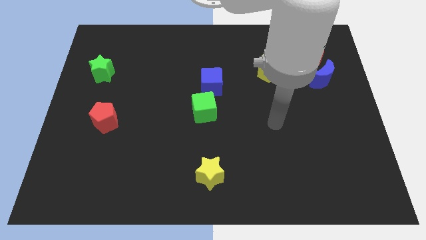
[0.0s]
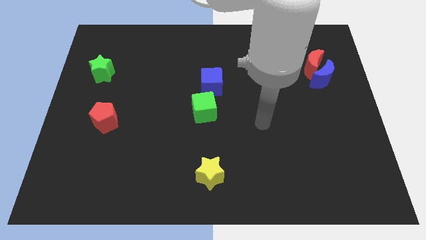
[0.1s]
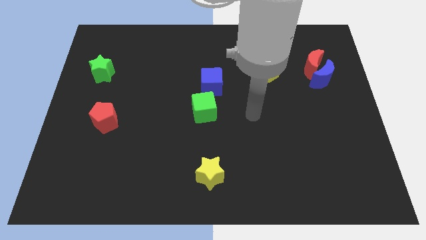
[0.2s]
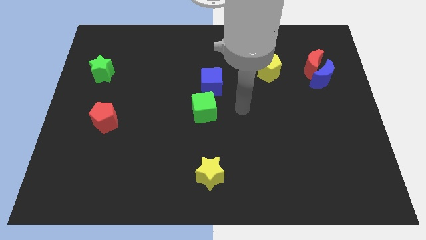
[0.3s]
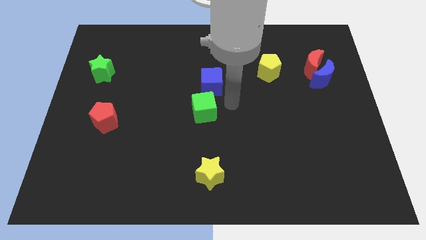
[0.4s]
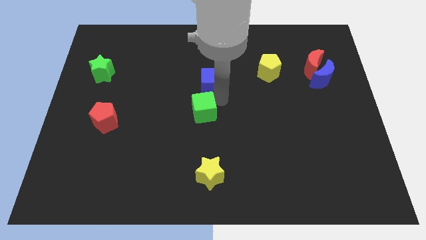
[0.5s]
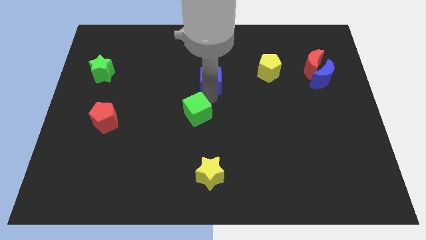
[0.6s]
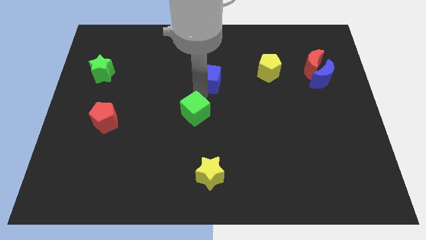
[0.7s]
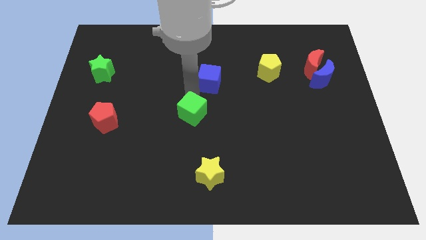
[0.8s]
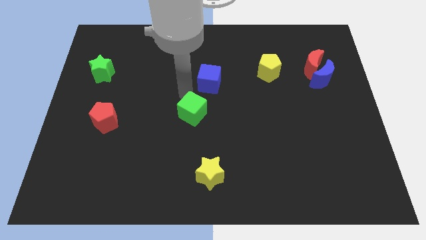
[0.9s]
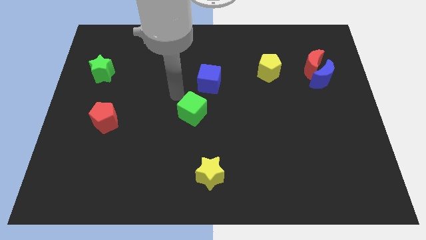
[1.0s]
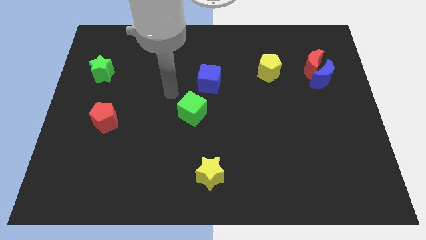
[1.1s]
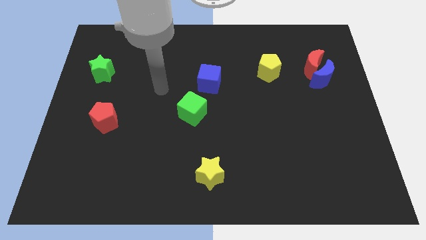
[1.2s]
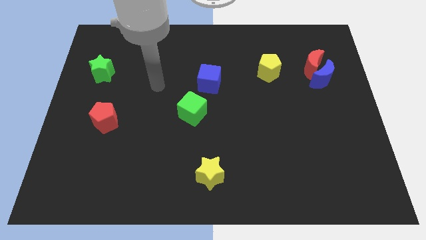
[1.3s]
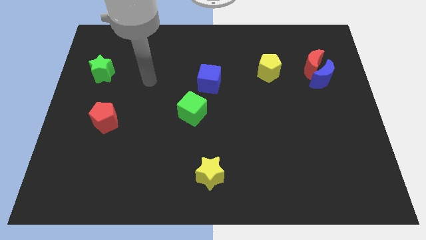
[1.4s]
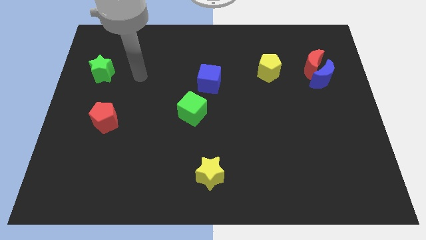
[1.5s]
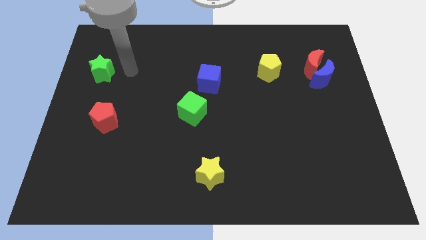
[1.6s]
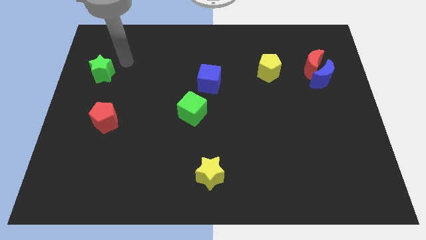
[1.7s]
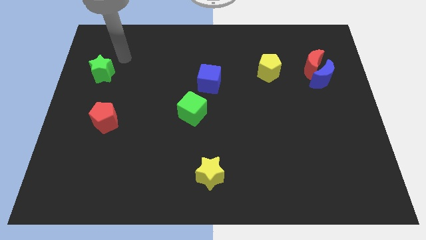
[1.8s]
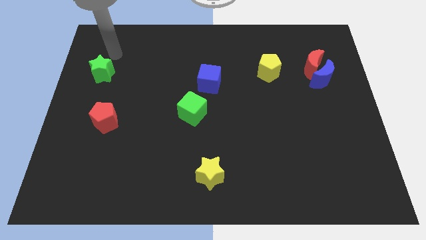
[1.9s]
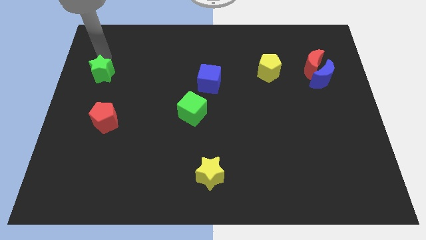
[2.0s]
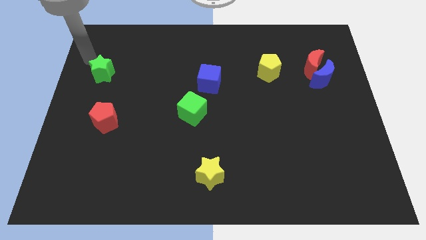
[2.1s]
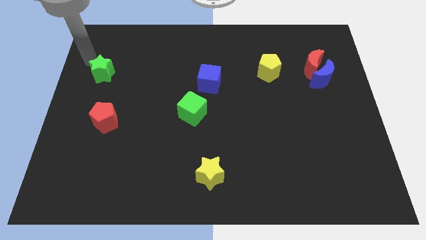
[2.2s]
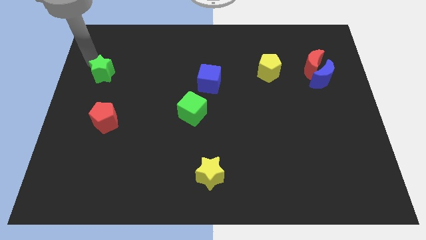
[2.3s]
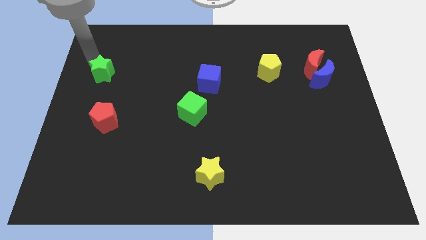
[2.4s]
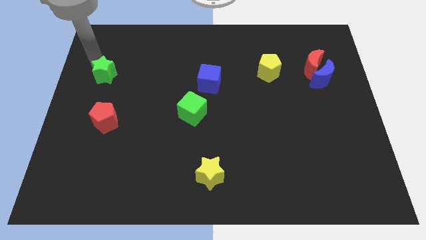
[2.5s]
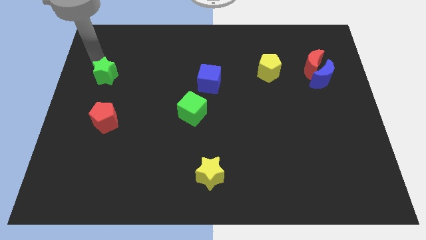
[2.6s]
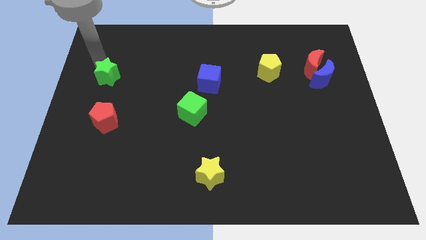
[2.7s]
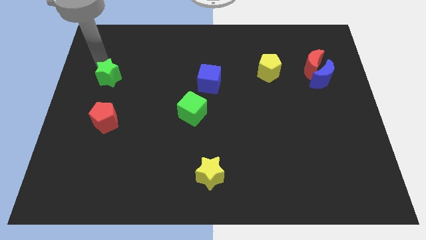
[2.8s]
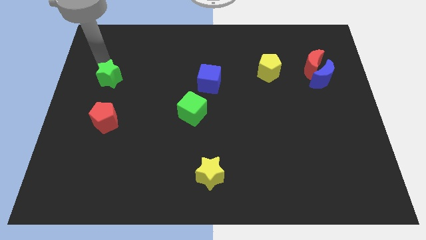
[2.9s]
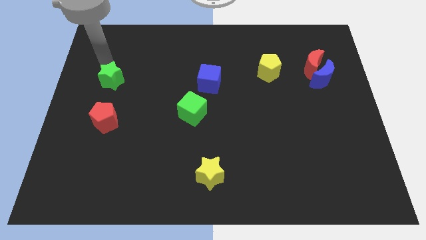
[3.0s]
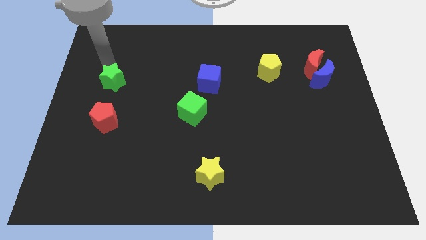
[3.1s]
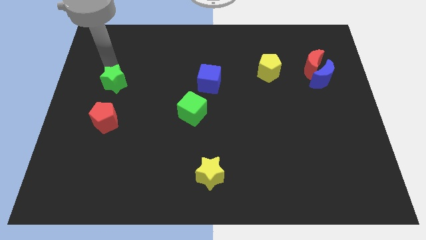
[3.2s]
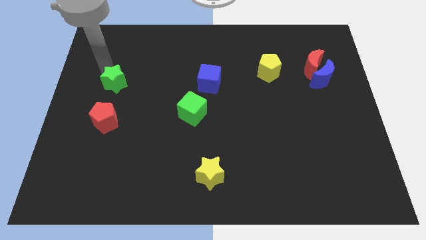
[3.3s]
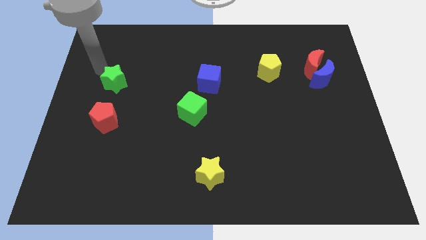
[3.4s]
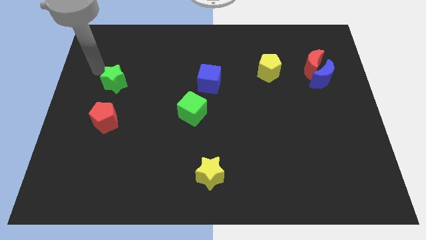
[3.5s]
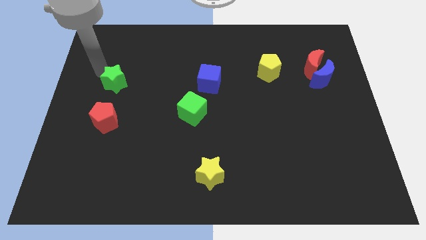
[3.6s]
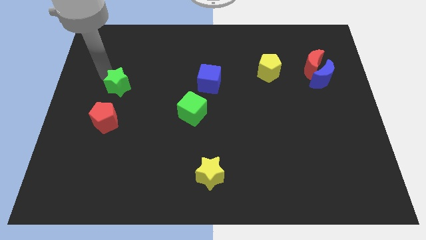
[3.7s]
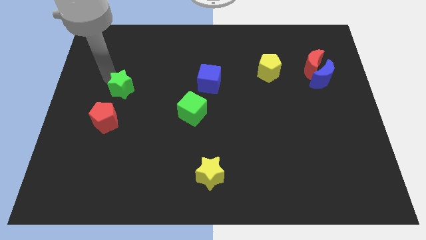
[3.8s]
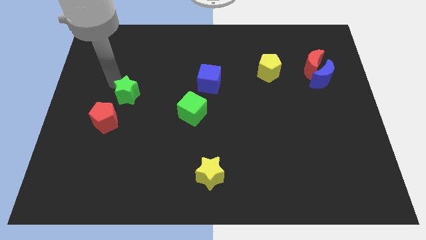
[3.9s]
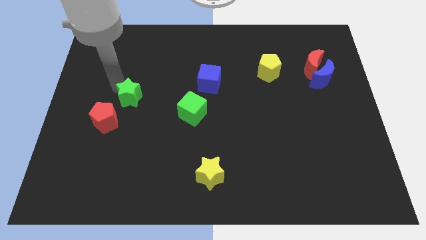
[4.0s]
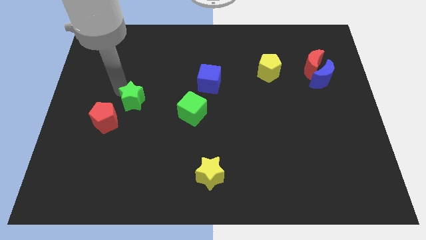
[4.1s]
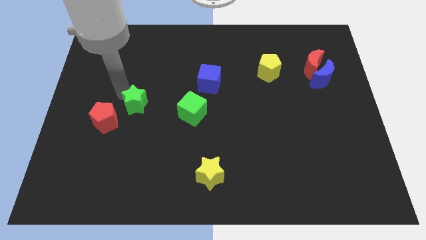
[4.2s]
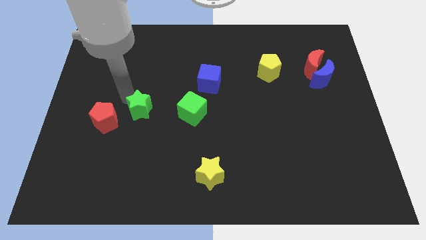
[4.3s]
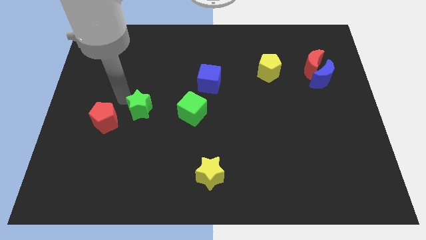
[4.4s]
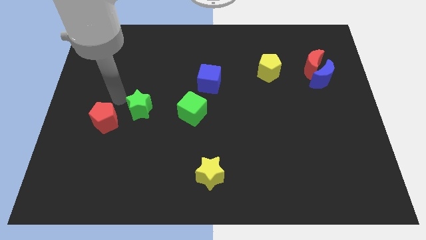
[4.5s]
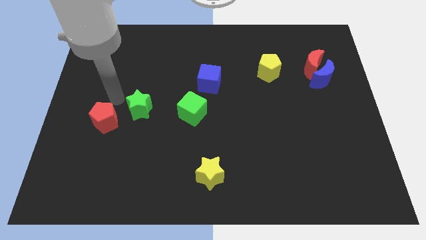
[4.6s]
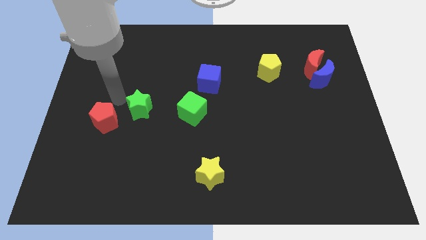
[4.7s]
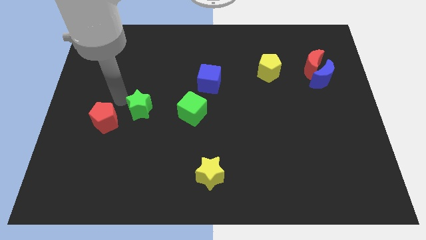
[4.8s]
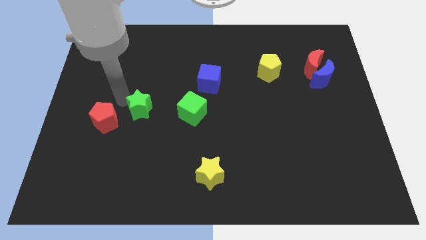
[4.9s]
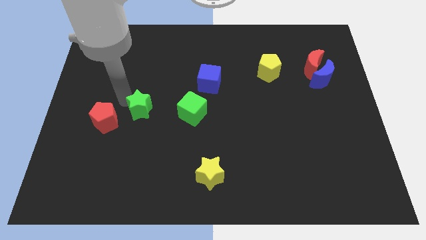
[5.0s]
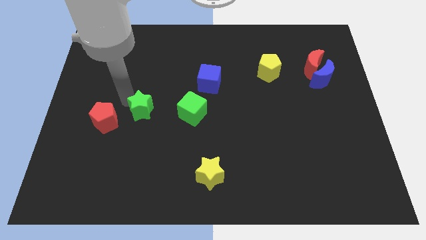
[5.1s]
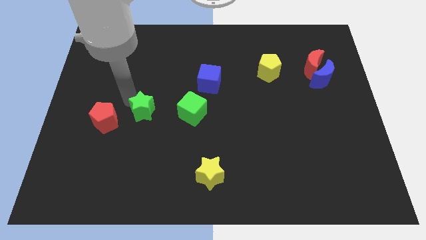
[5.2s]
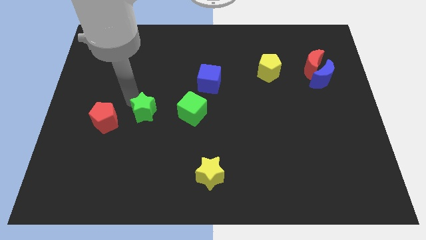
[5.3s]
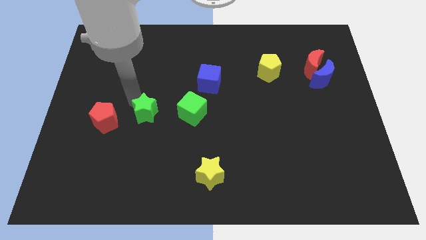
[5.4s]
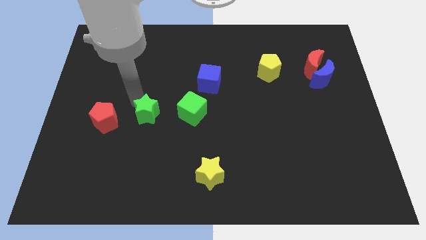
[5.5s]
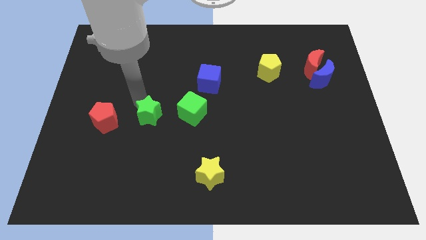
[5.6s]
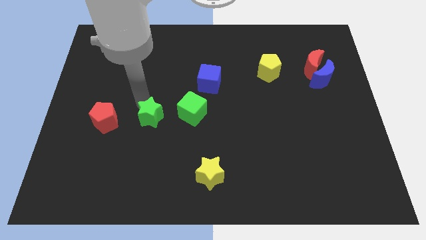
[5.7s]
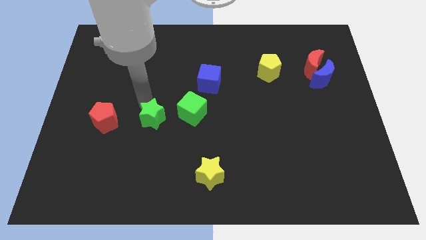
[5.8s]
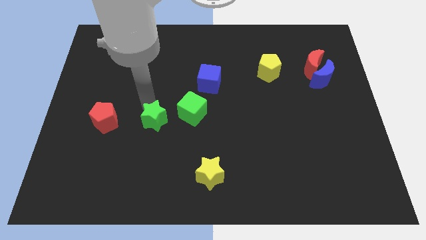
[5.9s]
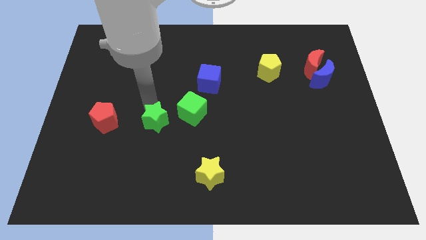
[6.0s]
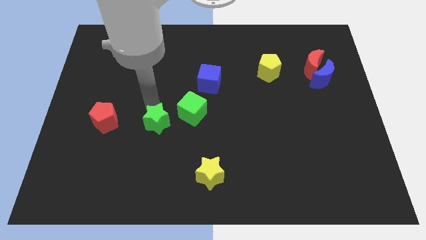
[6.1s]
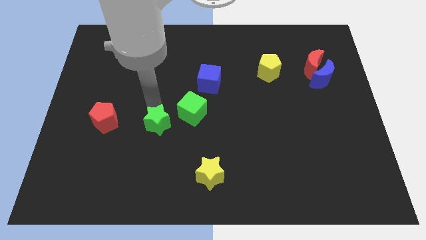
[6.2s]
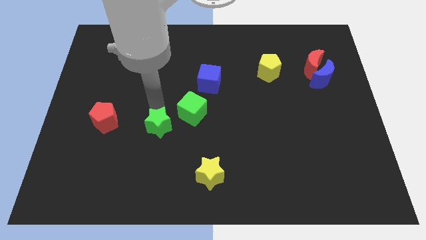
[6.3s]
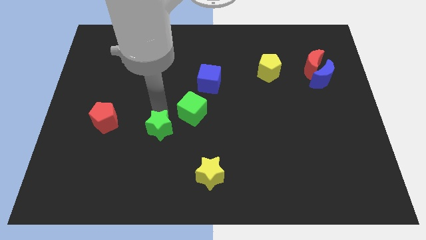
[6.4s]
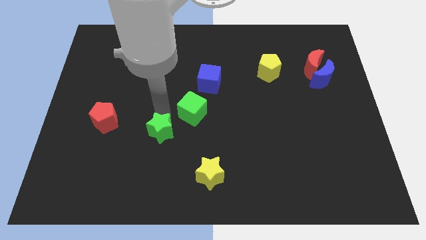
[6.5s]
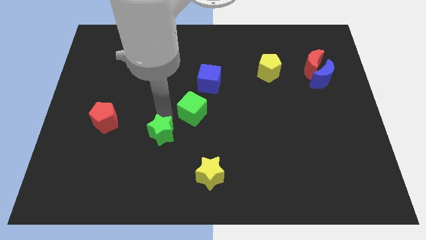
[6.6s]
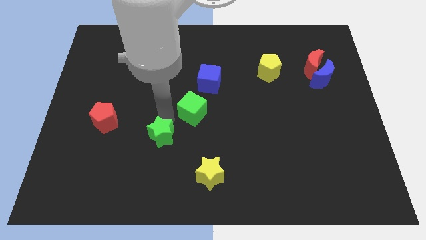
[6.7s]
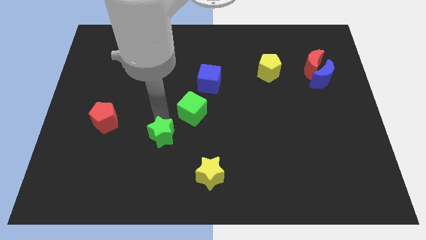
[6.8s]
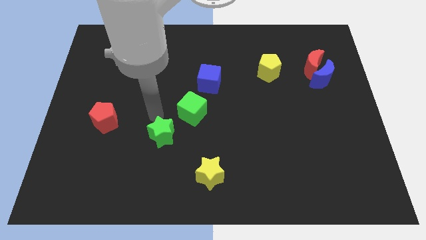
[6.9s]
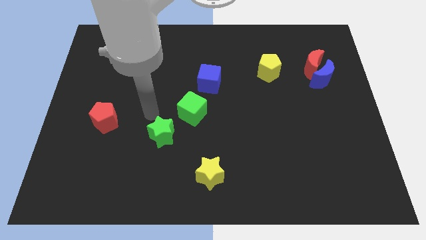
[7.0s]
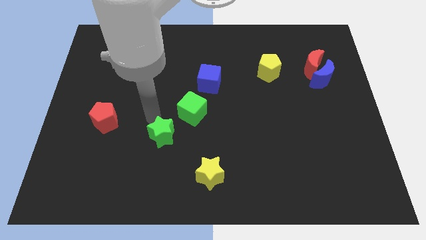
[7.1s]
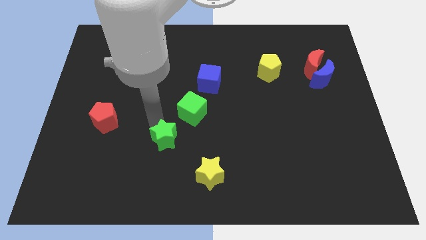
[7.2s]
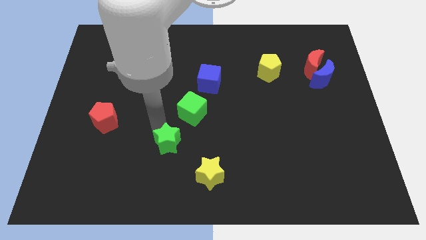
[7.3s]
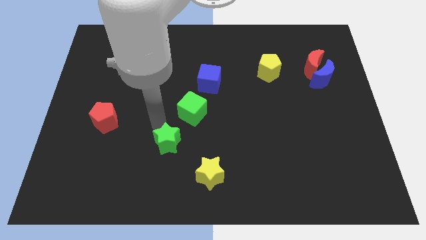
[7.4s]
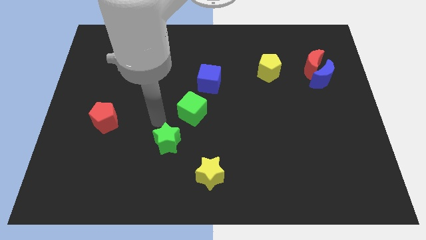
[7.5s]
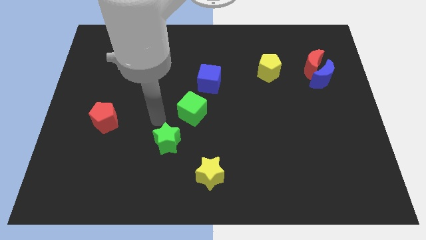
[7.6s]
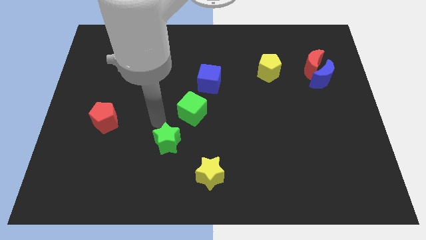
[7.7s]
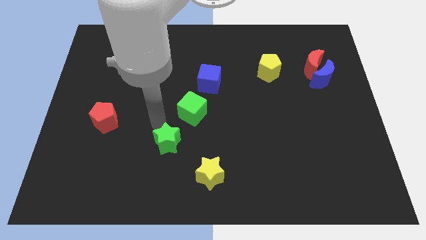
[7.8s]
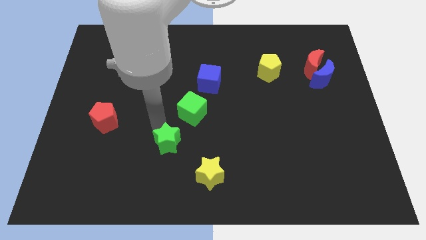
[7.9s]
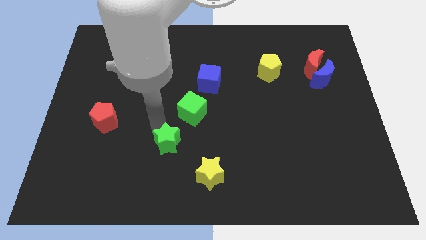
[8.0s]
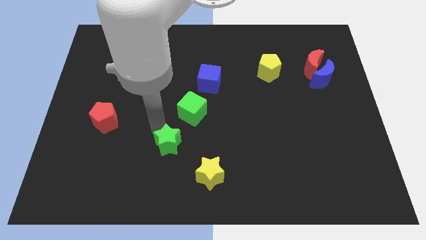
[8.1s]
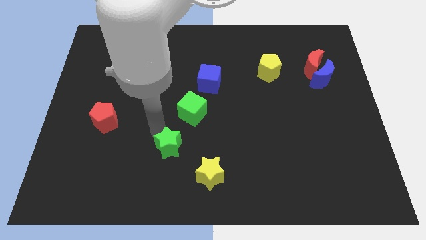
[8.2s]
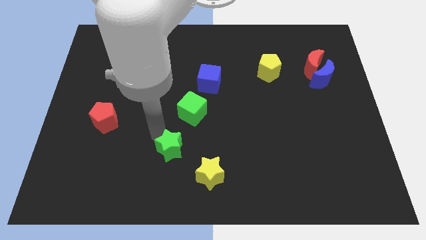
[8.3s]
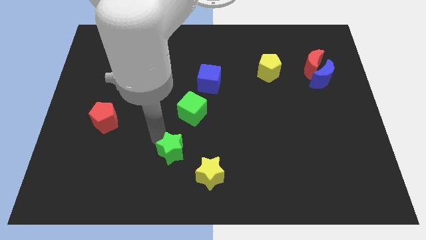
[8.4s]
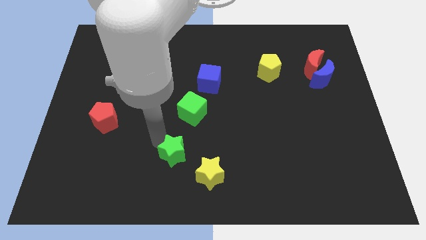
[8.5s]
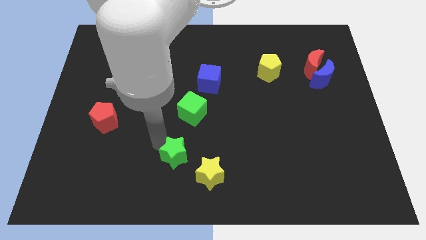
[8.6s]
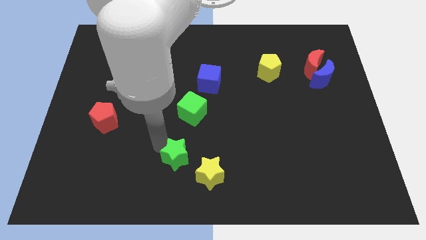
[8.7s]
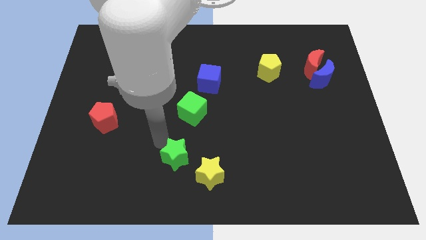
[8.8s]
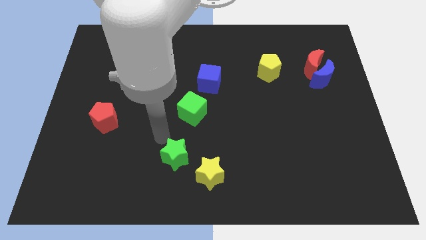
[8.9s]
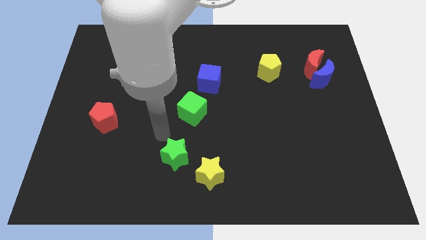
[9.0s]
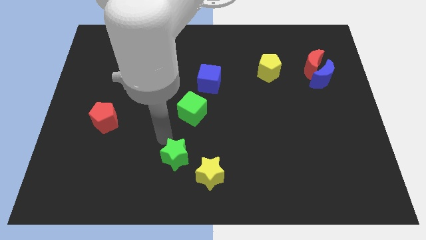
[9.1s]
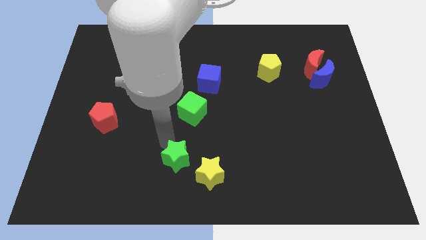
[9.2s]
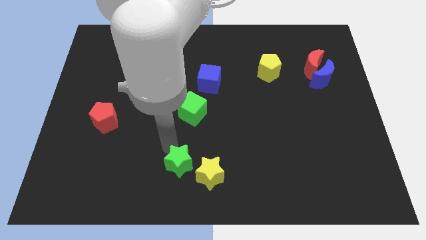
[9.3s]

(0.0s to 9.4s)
push the green star to the bottom
